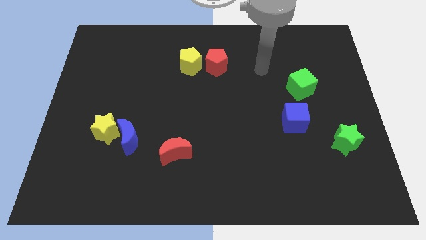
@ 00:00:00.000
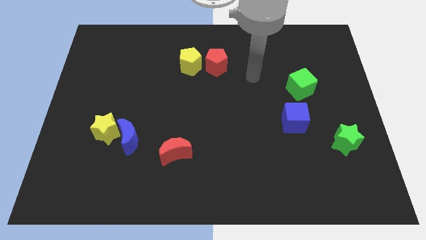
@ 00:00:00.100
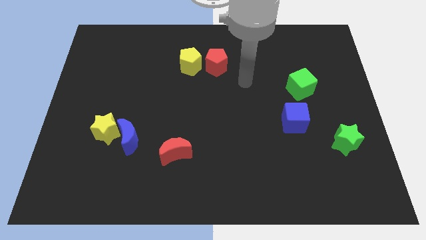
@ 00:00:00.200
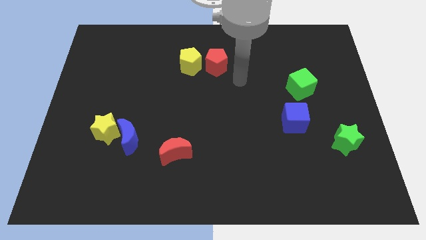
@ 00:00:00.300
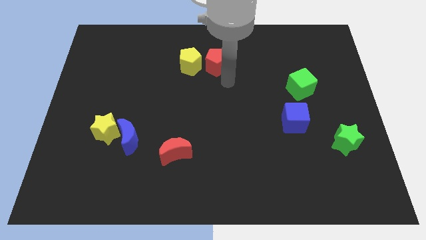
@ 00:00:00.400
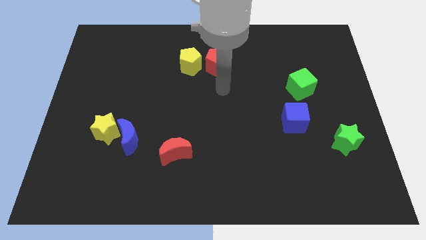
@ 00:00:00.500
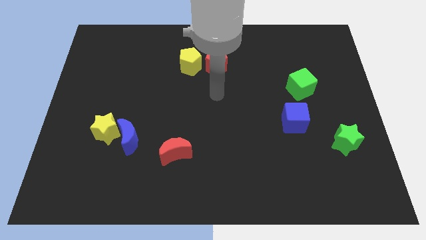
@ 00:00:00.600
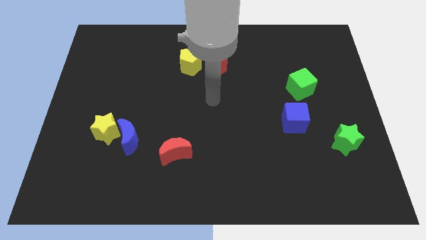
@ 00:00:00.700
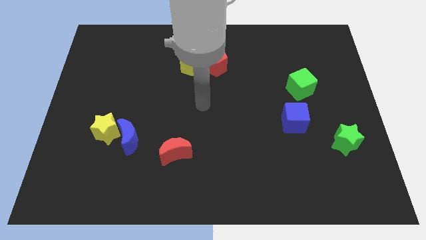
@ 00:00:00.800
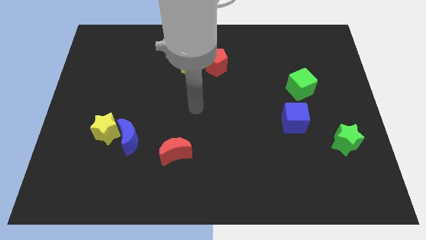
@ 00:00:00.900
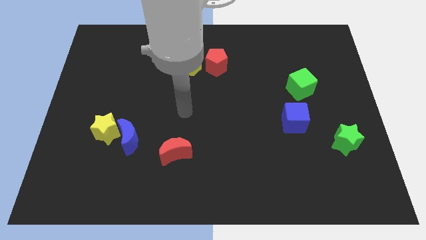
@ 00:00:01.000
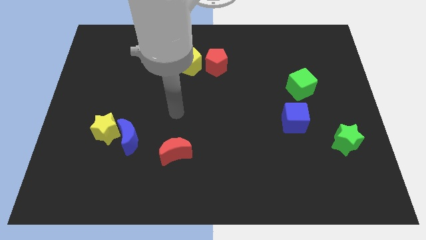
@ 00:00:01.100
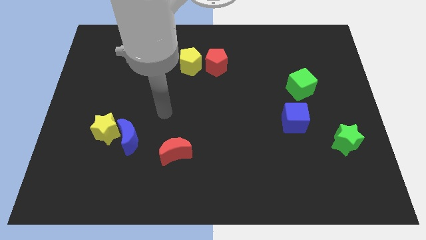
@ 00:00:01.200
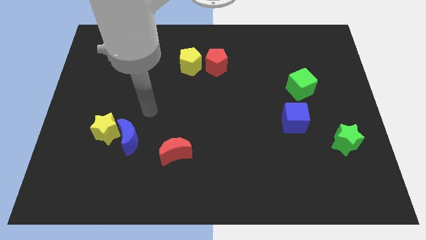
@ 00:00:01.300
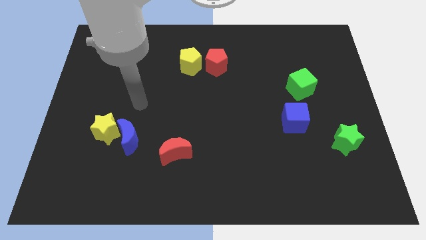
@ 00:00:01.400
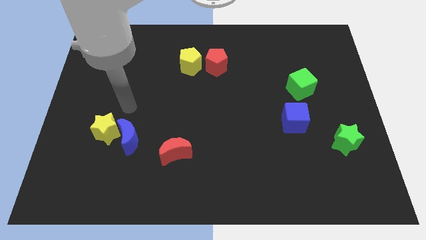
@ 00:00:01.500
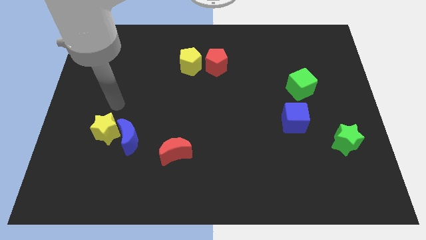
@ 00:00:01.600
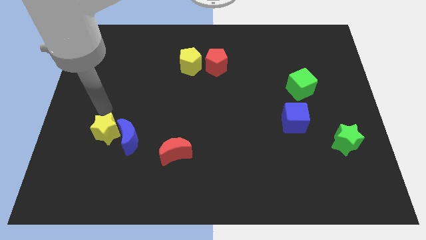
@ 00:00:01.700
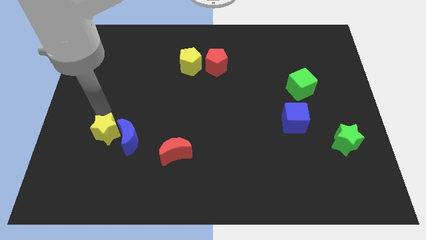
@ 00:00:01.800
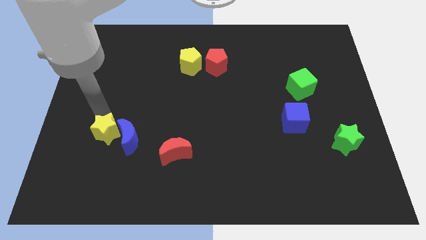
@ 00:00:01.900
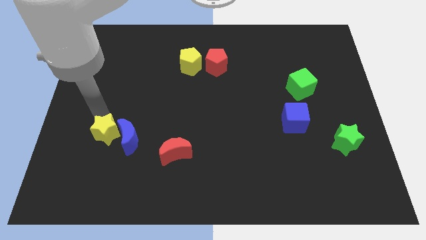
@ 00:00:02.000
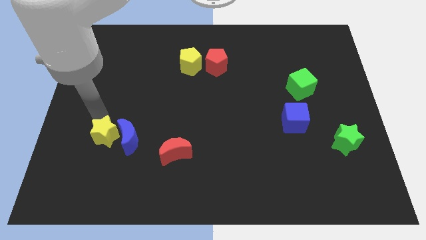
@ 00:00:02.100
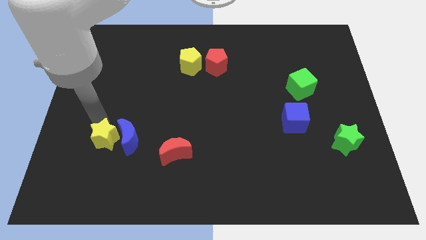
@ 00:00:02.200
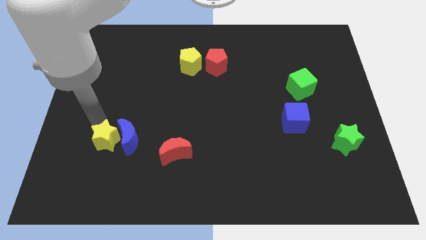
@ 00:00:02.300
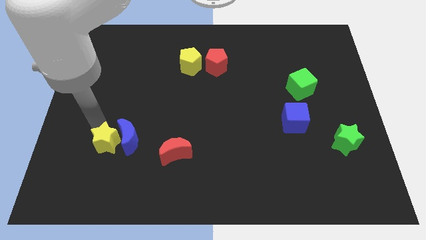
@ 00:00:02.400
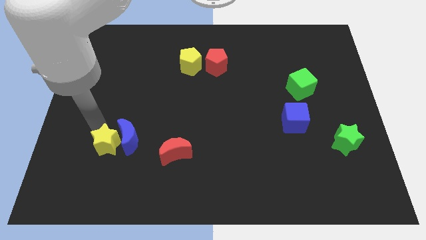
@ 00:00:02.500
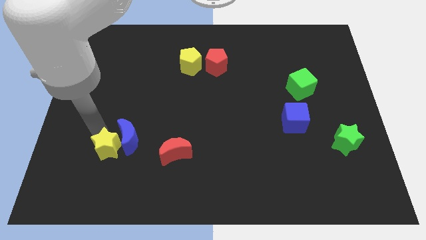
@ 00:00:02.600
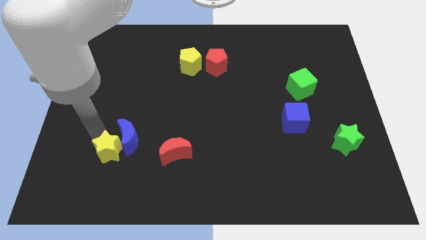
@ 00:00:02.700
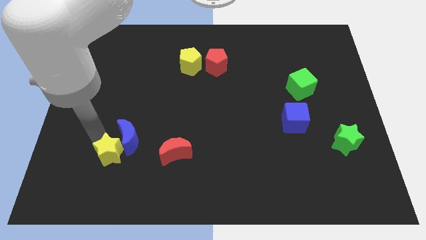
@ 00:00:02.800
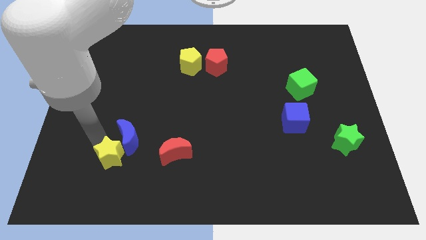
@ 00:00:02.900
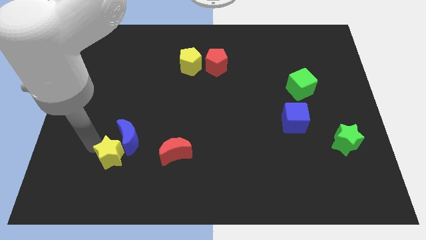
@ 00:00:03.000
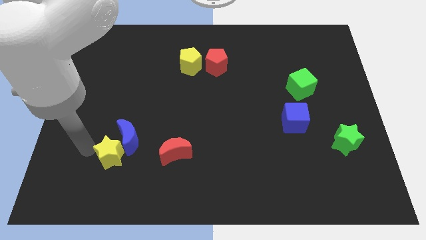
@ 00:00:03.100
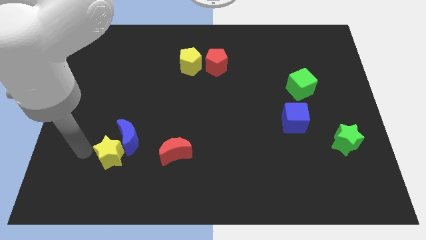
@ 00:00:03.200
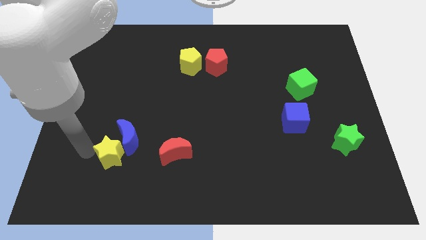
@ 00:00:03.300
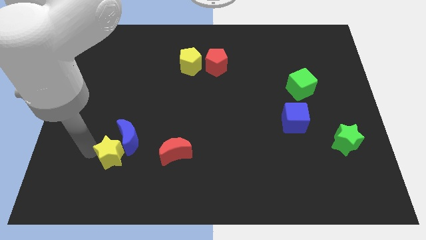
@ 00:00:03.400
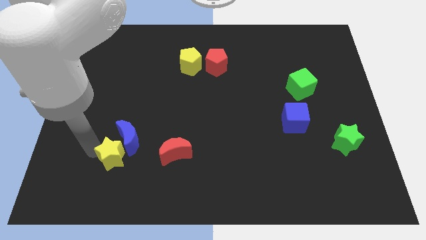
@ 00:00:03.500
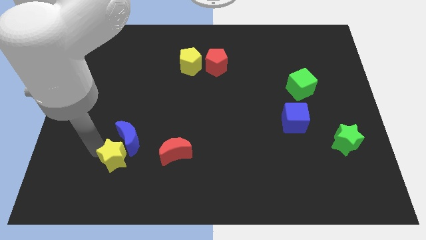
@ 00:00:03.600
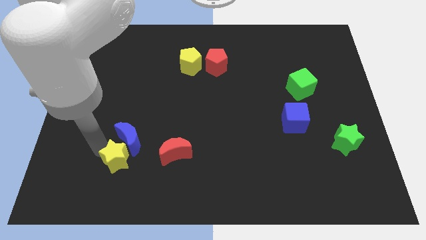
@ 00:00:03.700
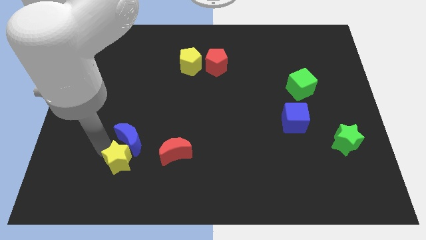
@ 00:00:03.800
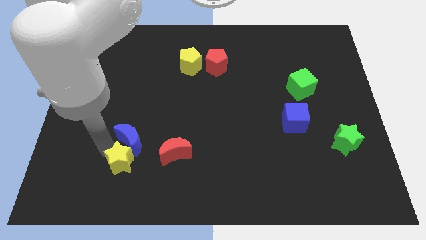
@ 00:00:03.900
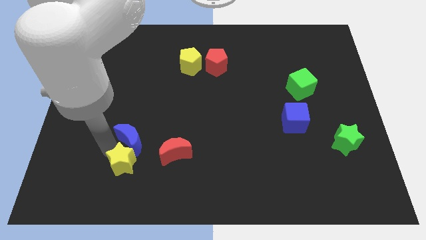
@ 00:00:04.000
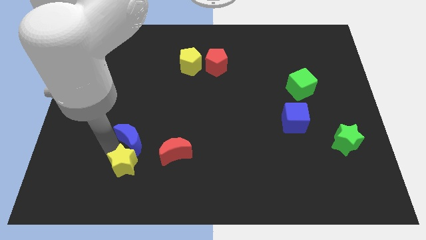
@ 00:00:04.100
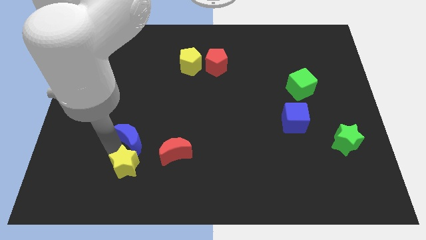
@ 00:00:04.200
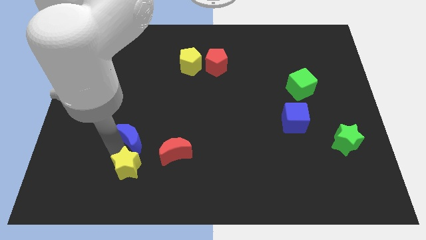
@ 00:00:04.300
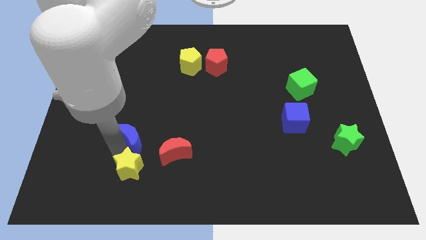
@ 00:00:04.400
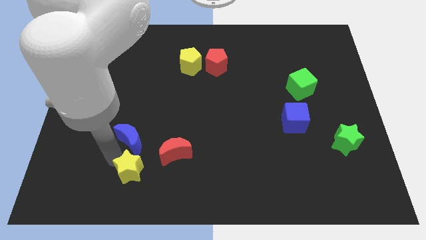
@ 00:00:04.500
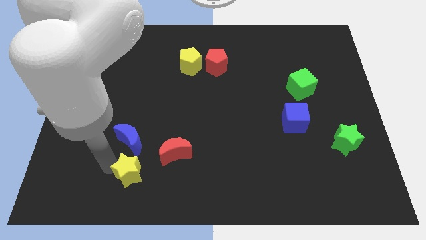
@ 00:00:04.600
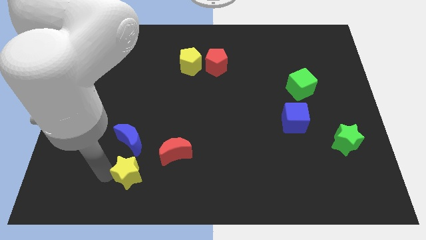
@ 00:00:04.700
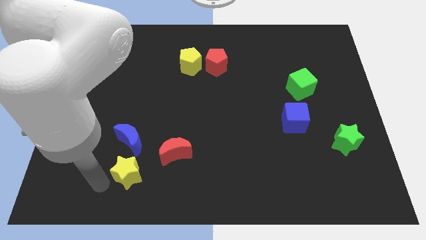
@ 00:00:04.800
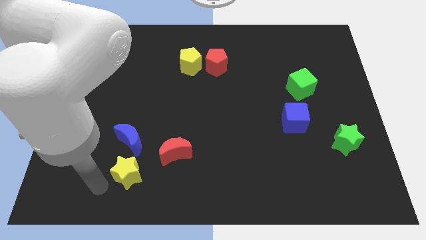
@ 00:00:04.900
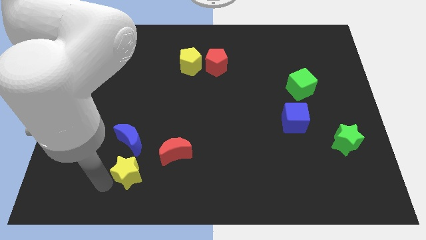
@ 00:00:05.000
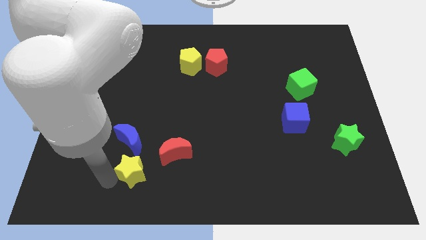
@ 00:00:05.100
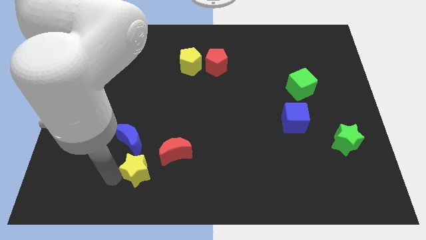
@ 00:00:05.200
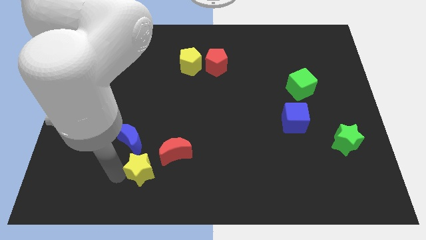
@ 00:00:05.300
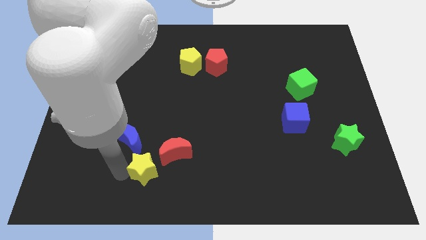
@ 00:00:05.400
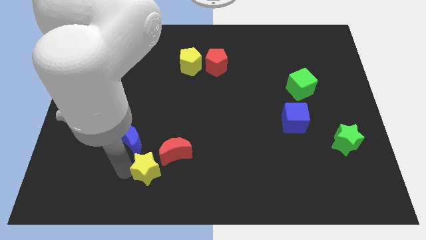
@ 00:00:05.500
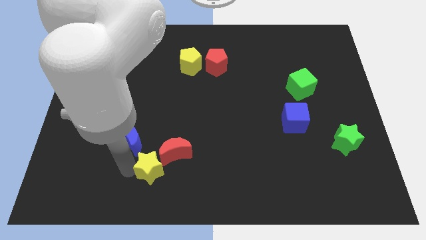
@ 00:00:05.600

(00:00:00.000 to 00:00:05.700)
put the yellow star to the red moon

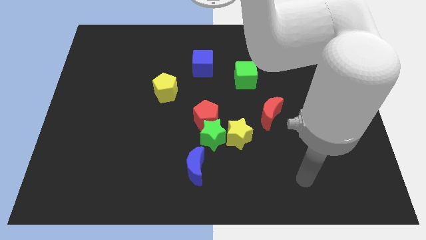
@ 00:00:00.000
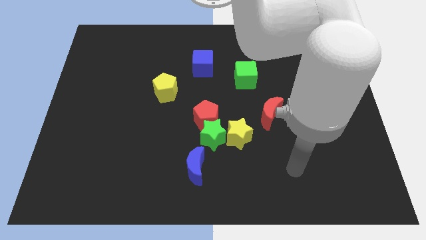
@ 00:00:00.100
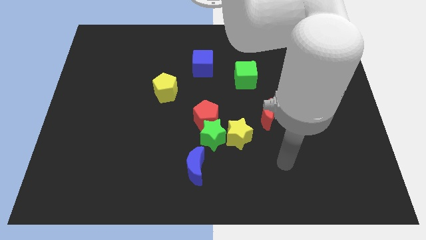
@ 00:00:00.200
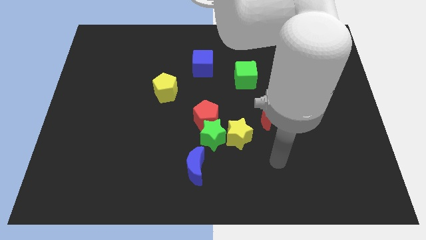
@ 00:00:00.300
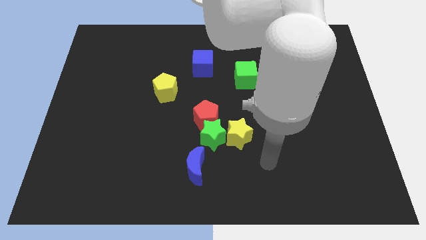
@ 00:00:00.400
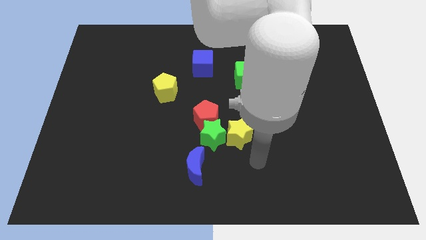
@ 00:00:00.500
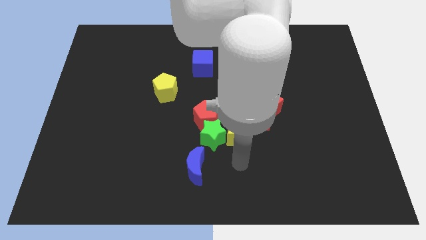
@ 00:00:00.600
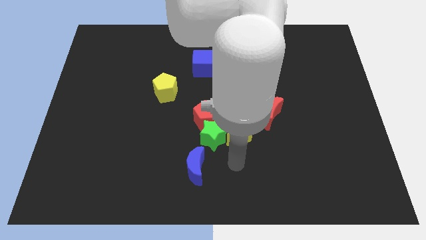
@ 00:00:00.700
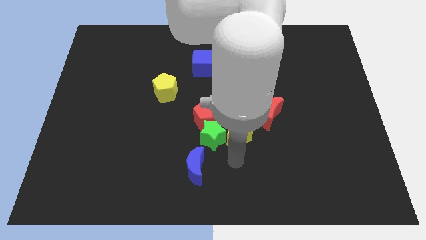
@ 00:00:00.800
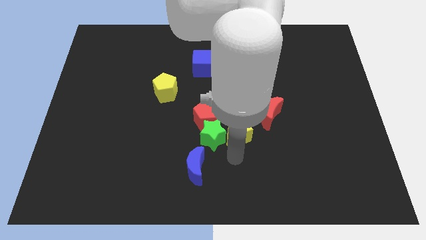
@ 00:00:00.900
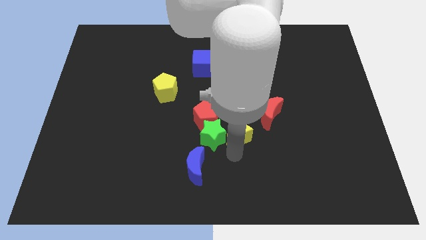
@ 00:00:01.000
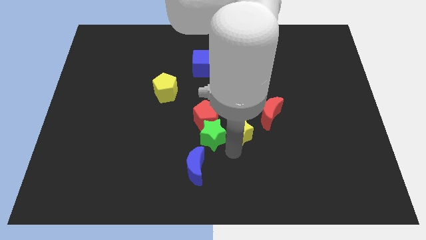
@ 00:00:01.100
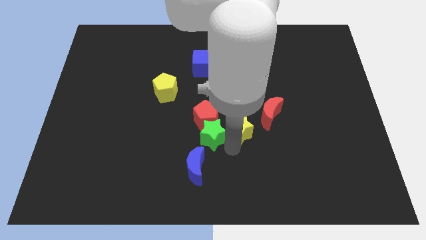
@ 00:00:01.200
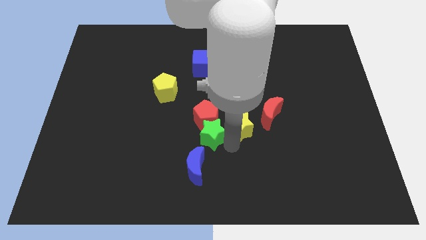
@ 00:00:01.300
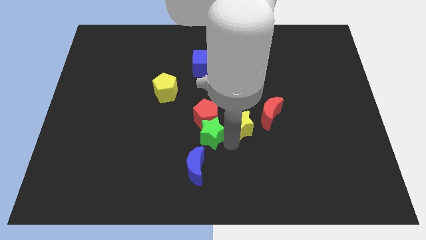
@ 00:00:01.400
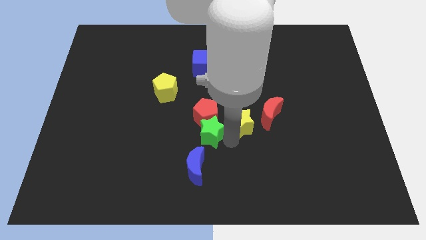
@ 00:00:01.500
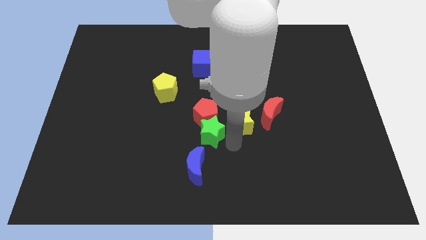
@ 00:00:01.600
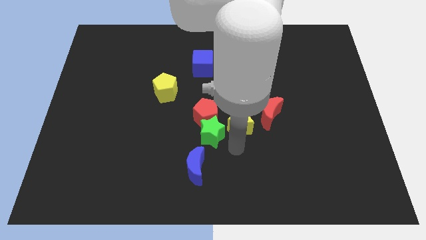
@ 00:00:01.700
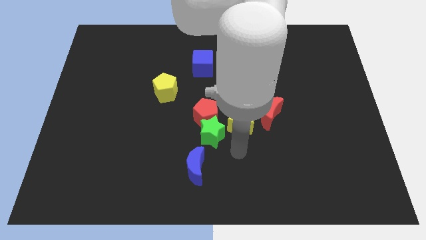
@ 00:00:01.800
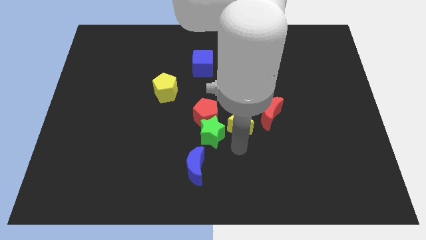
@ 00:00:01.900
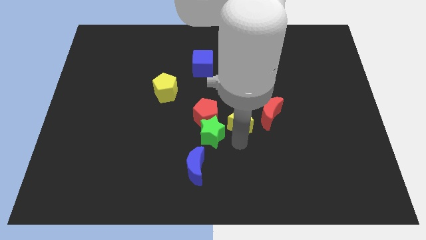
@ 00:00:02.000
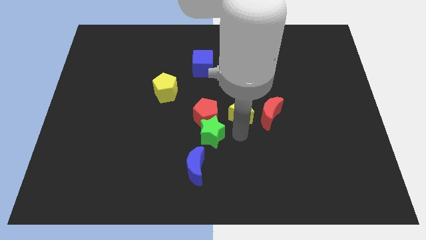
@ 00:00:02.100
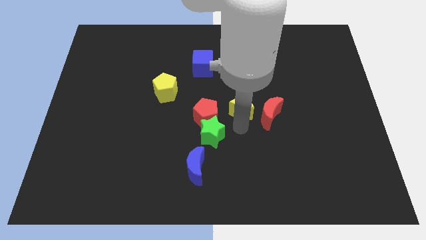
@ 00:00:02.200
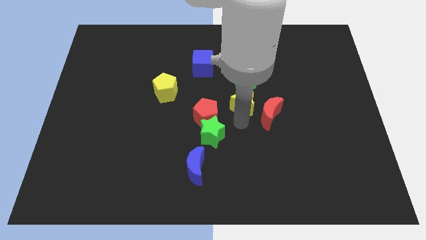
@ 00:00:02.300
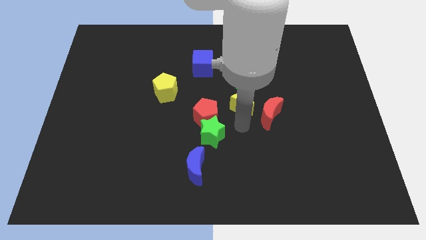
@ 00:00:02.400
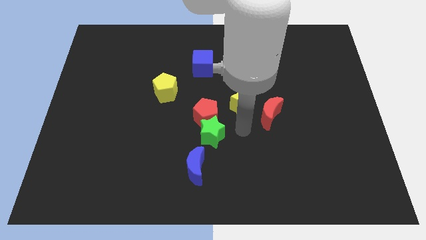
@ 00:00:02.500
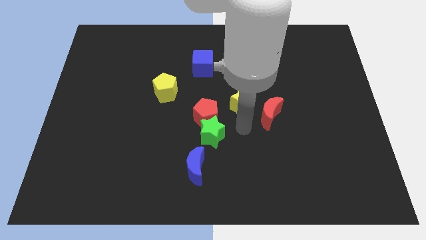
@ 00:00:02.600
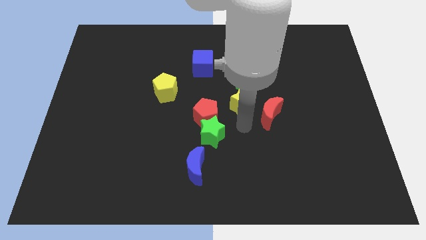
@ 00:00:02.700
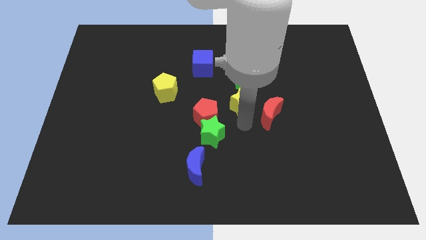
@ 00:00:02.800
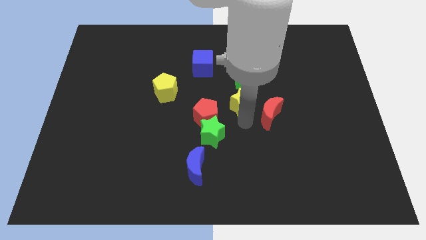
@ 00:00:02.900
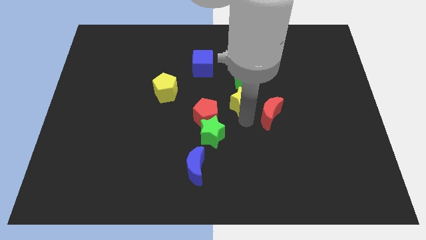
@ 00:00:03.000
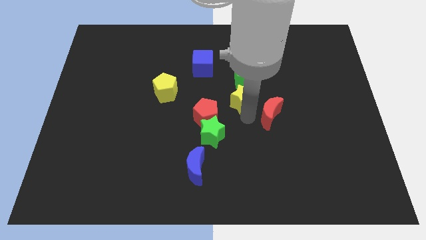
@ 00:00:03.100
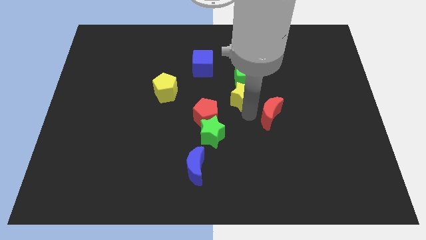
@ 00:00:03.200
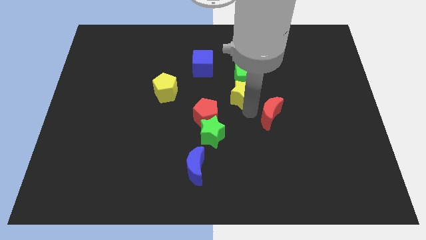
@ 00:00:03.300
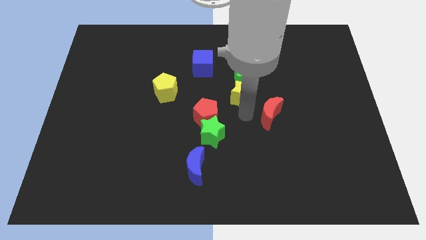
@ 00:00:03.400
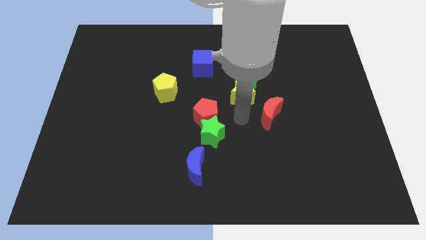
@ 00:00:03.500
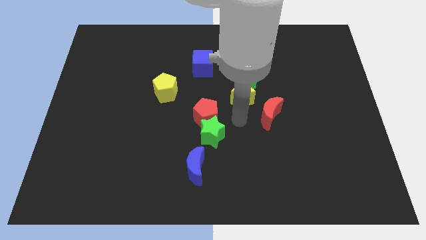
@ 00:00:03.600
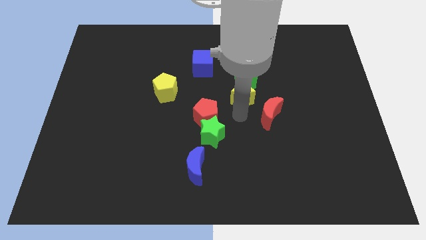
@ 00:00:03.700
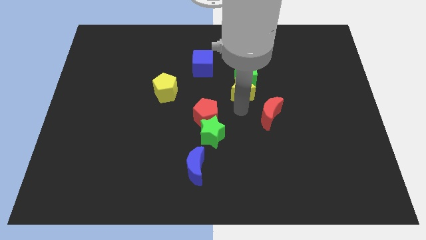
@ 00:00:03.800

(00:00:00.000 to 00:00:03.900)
push the yellow star towards the green cube
